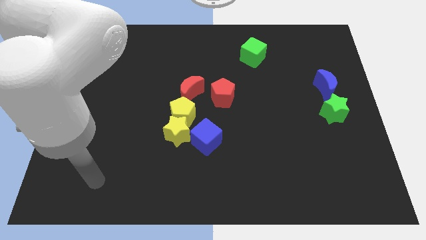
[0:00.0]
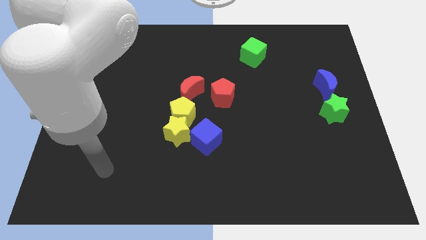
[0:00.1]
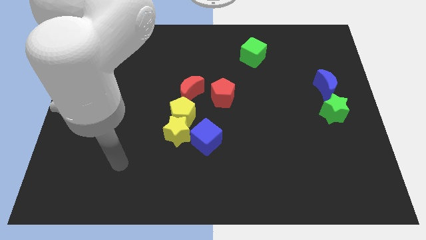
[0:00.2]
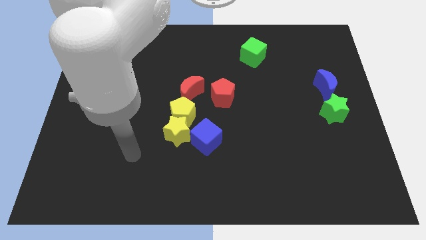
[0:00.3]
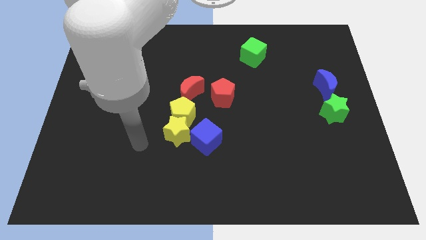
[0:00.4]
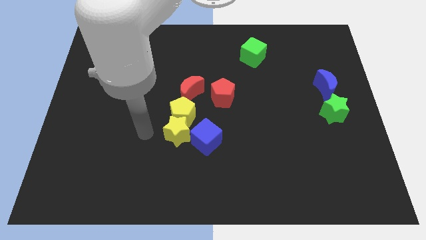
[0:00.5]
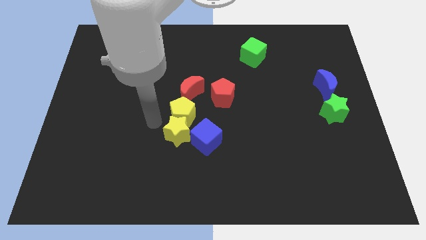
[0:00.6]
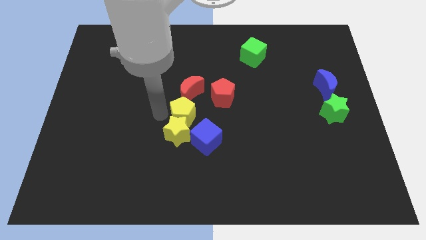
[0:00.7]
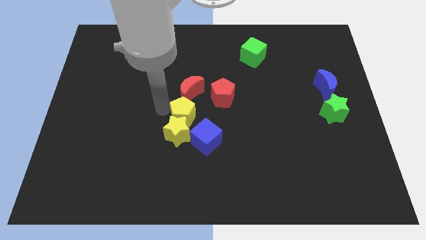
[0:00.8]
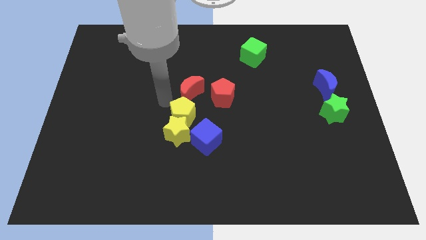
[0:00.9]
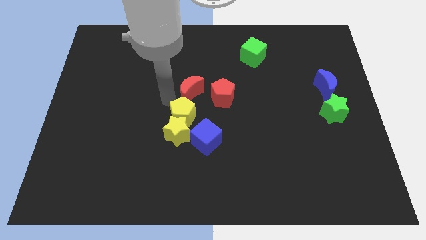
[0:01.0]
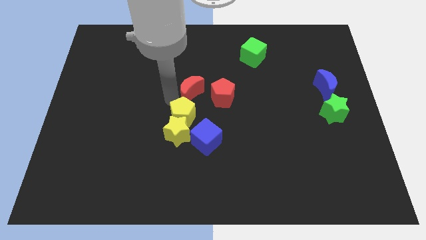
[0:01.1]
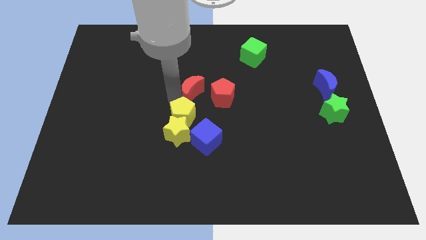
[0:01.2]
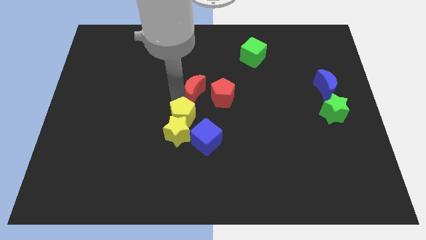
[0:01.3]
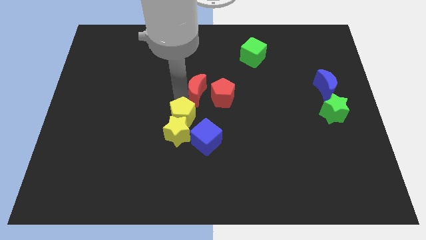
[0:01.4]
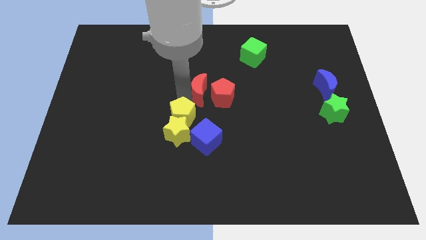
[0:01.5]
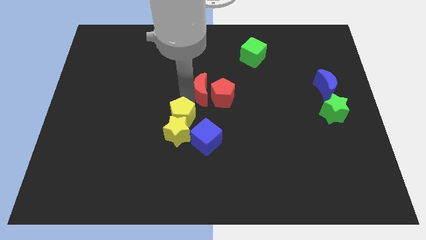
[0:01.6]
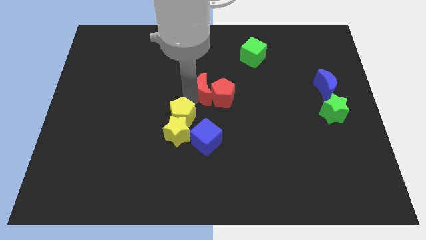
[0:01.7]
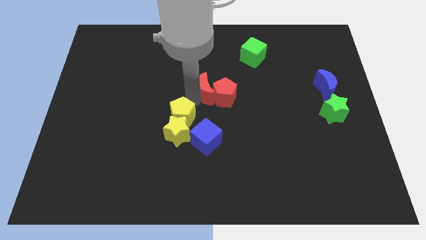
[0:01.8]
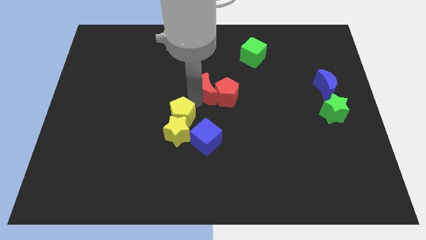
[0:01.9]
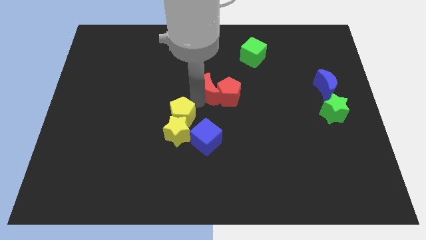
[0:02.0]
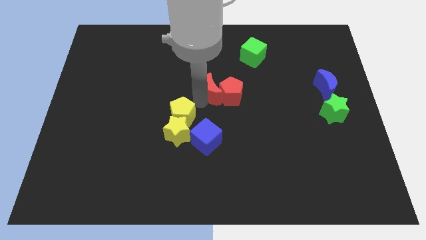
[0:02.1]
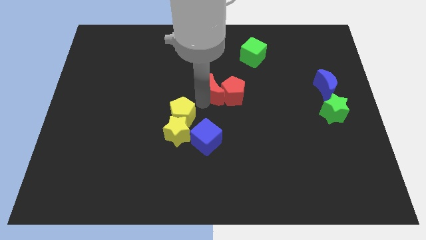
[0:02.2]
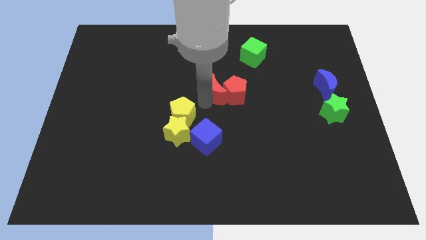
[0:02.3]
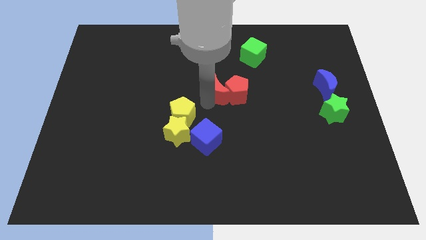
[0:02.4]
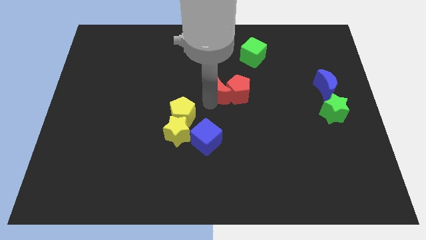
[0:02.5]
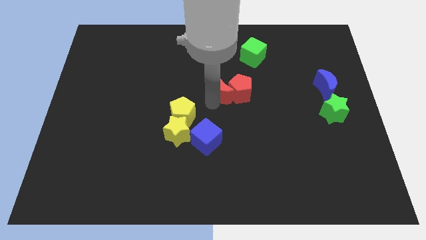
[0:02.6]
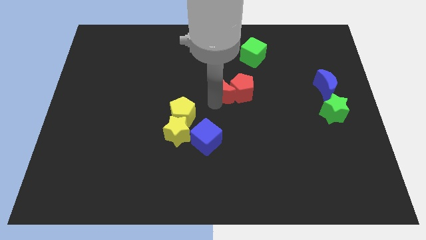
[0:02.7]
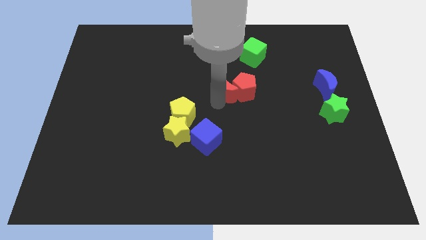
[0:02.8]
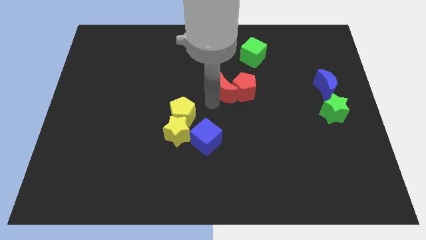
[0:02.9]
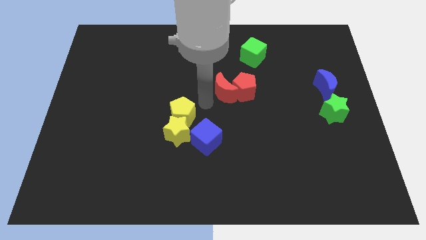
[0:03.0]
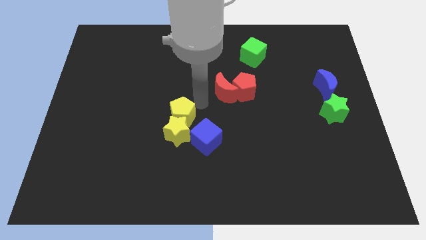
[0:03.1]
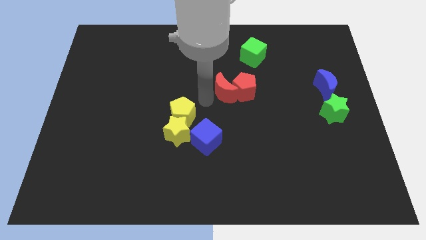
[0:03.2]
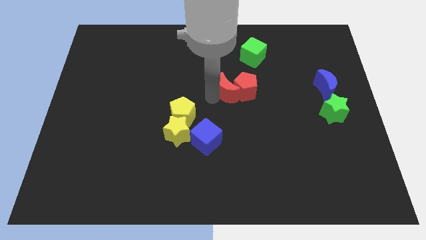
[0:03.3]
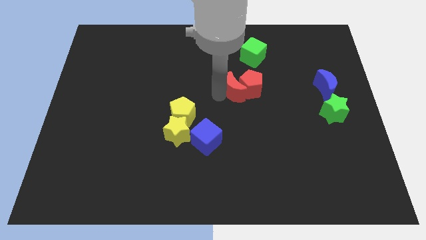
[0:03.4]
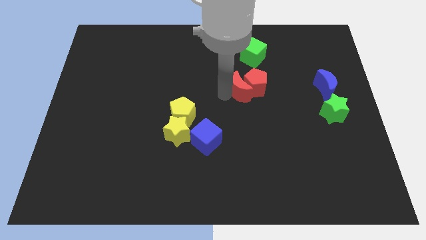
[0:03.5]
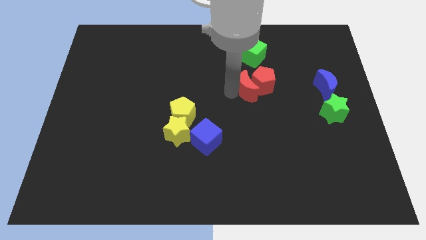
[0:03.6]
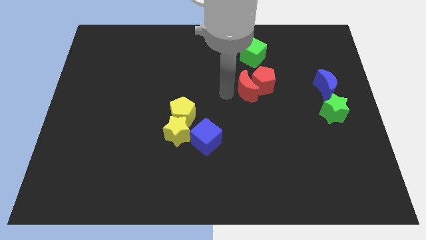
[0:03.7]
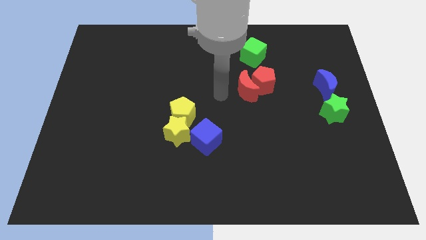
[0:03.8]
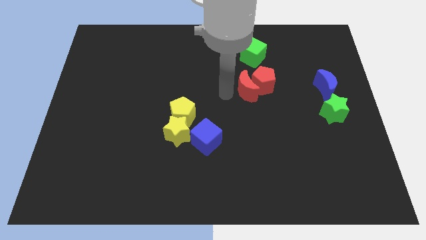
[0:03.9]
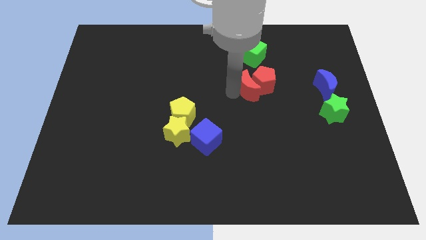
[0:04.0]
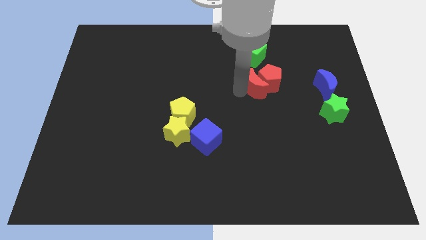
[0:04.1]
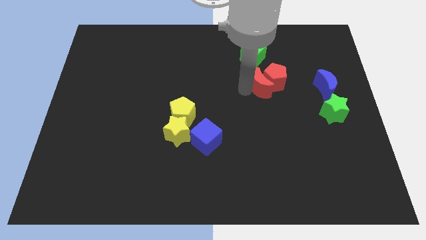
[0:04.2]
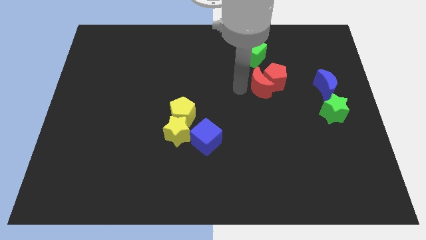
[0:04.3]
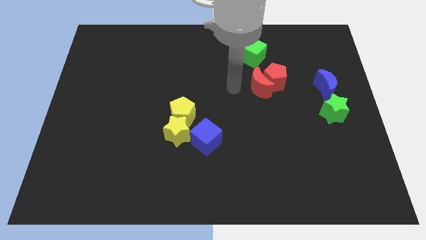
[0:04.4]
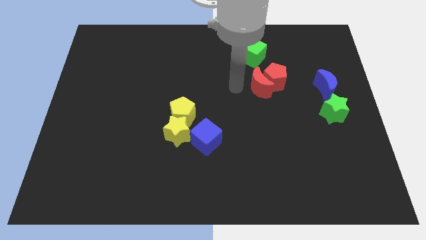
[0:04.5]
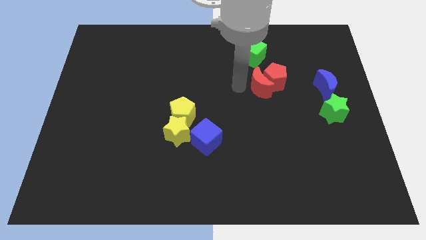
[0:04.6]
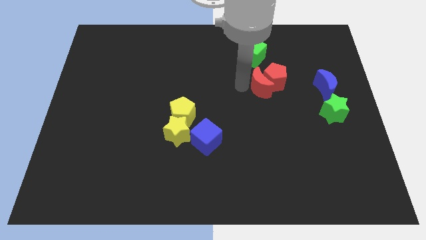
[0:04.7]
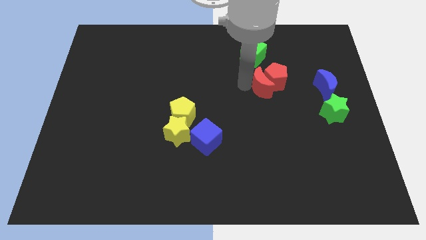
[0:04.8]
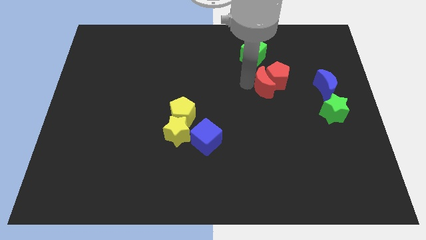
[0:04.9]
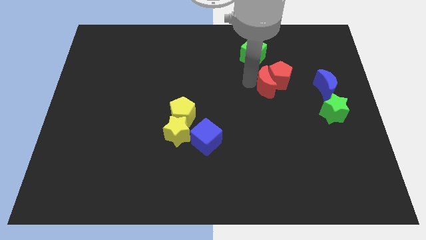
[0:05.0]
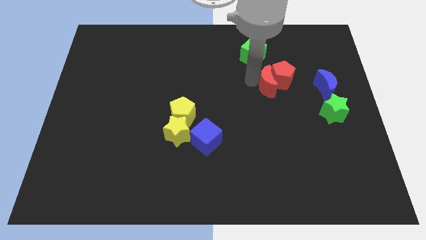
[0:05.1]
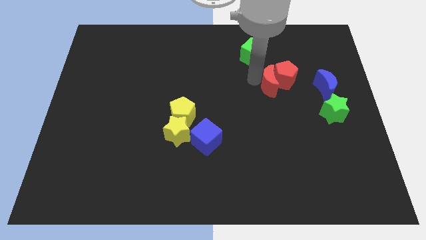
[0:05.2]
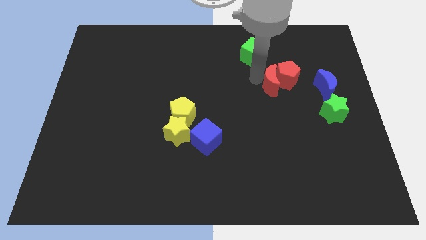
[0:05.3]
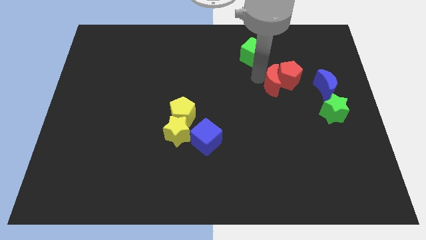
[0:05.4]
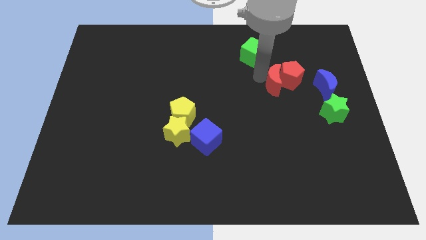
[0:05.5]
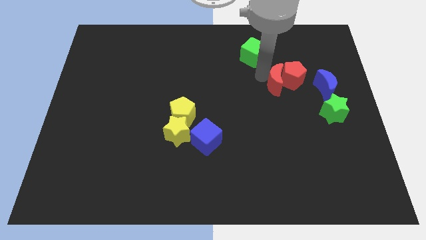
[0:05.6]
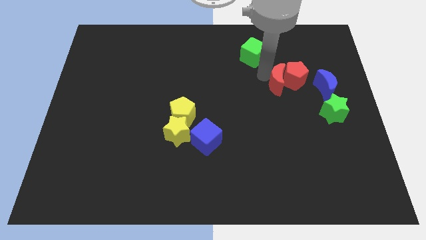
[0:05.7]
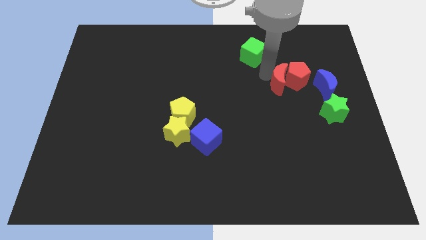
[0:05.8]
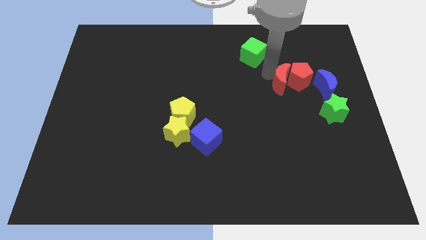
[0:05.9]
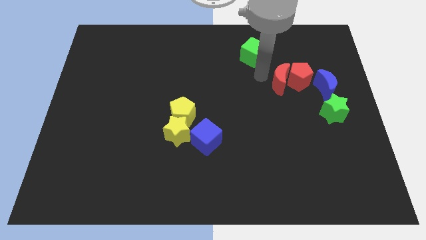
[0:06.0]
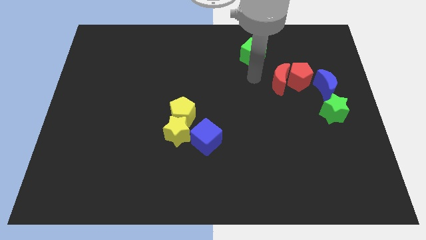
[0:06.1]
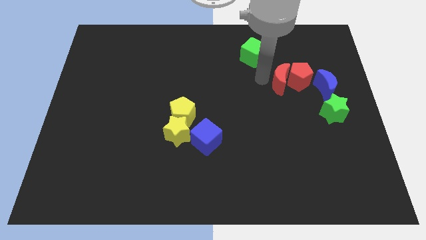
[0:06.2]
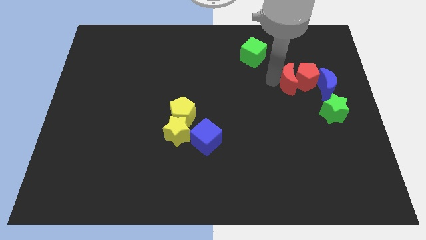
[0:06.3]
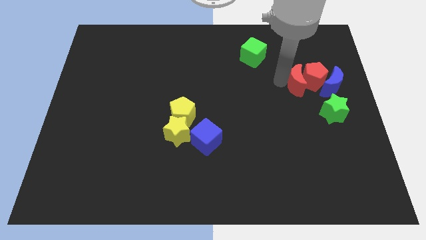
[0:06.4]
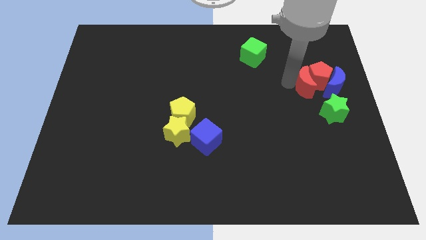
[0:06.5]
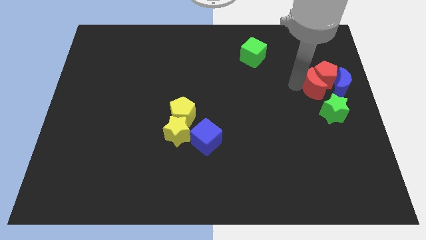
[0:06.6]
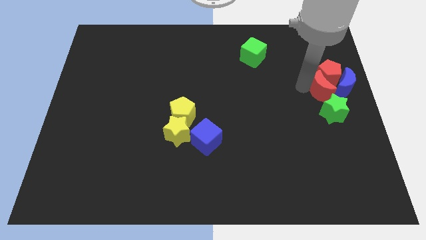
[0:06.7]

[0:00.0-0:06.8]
put the red moon to the blue moon

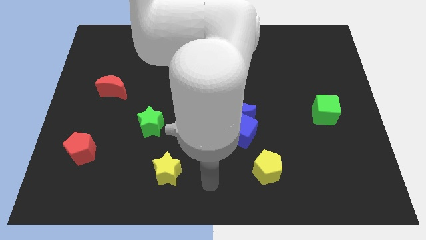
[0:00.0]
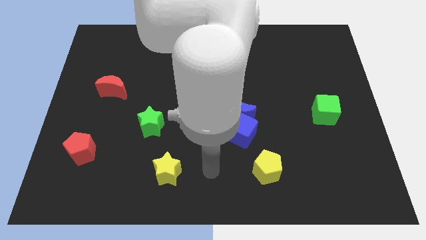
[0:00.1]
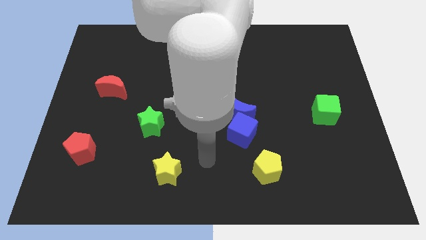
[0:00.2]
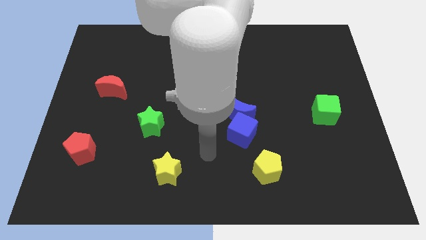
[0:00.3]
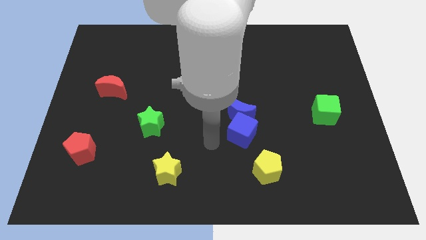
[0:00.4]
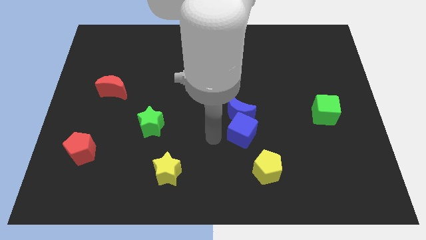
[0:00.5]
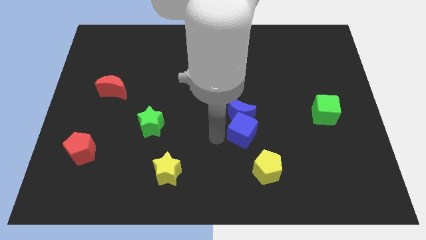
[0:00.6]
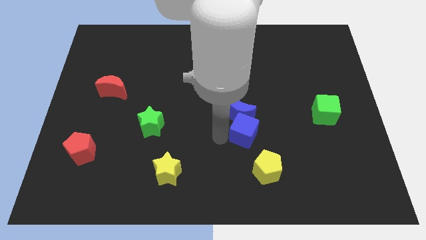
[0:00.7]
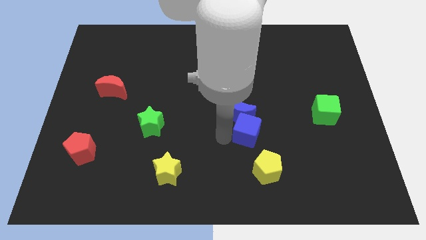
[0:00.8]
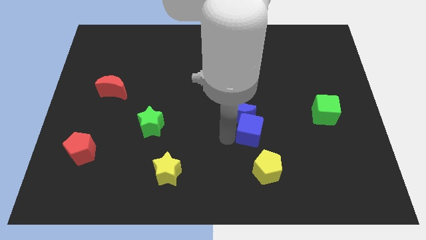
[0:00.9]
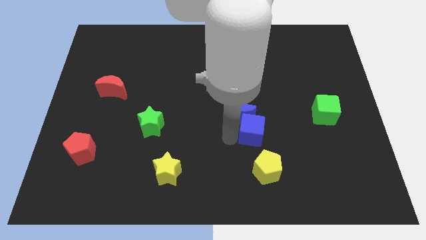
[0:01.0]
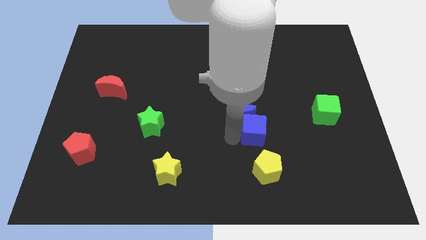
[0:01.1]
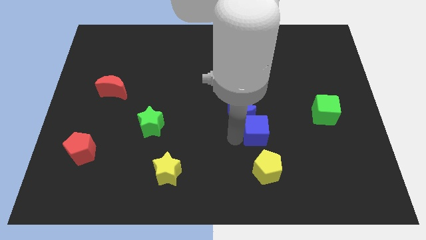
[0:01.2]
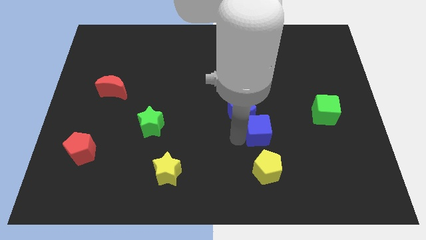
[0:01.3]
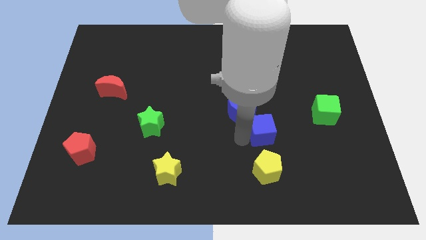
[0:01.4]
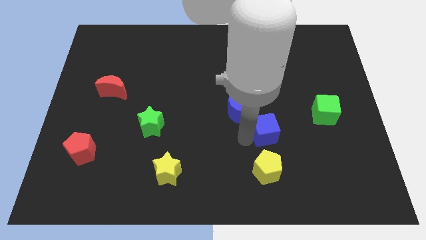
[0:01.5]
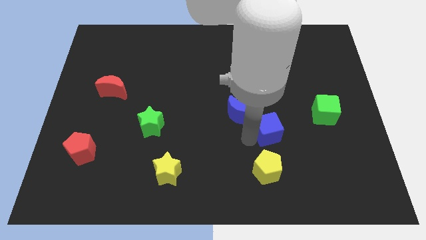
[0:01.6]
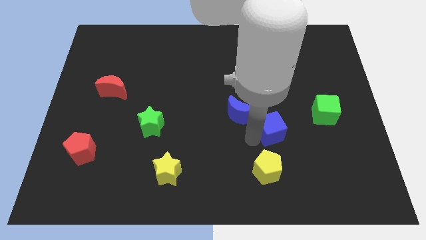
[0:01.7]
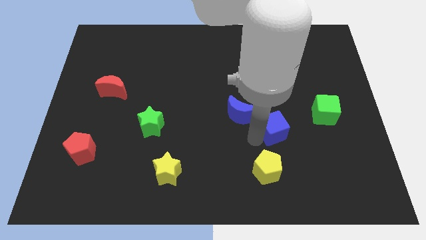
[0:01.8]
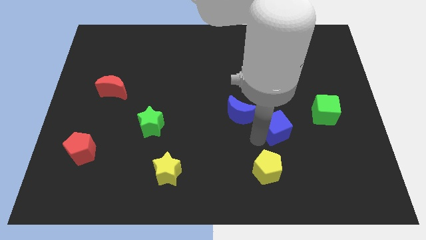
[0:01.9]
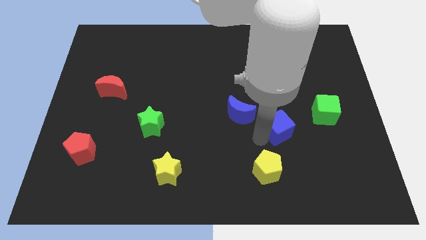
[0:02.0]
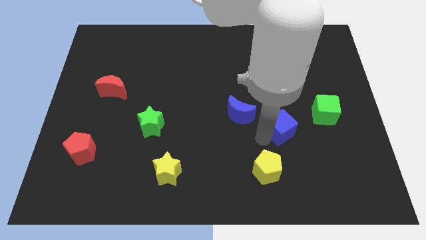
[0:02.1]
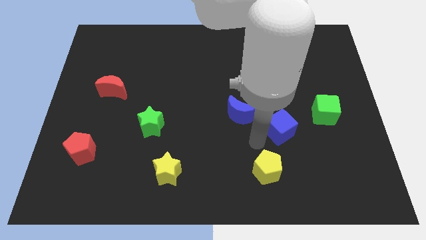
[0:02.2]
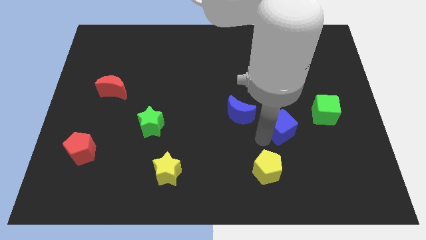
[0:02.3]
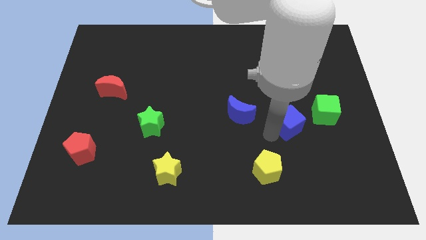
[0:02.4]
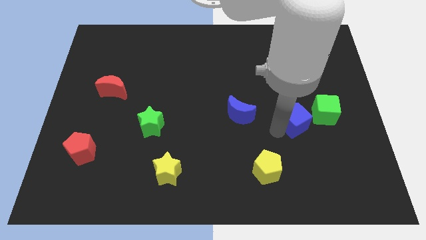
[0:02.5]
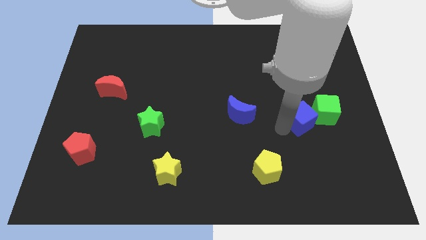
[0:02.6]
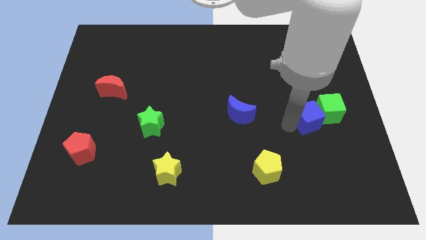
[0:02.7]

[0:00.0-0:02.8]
slide the blue cube close to the green cube
